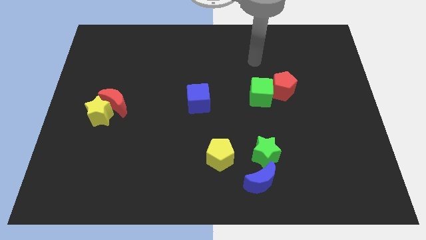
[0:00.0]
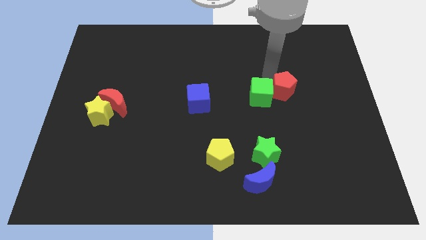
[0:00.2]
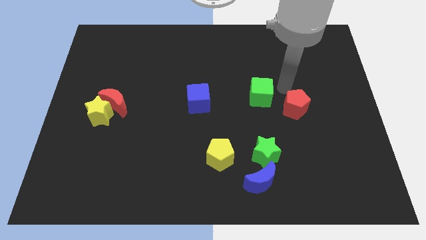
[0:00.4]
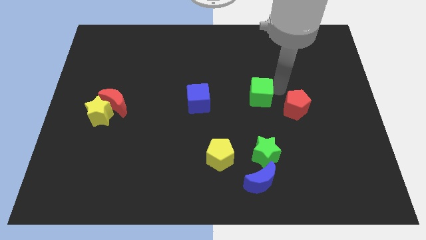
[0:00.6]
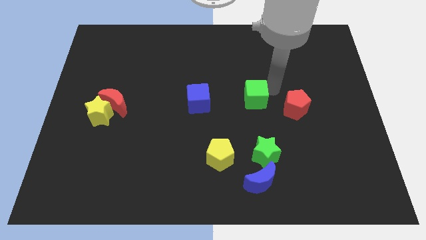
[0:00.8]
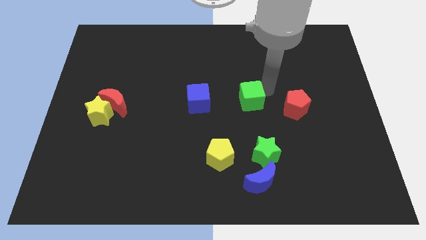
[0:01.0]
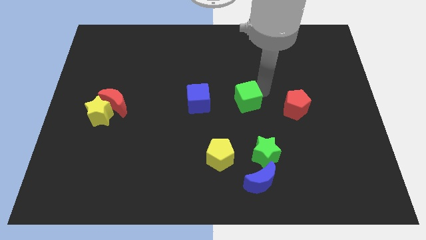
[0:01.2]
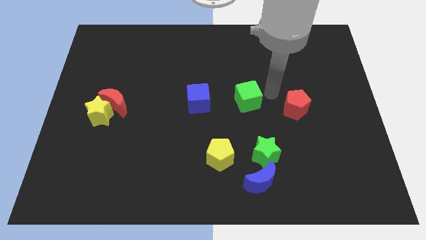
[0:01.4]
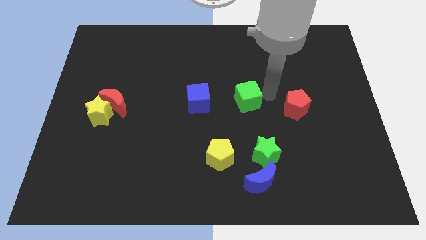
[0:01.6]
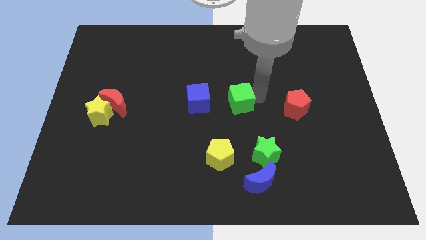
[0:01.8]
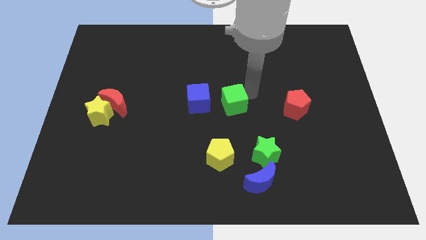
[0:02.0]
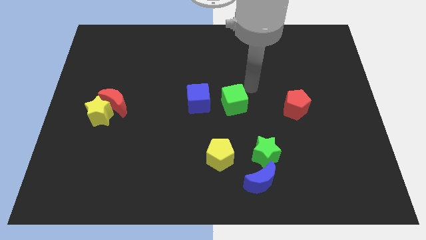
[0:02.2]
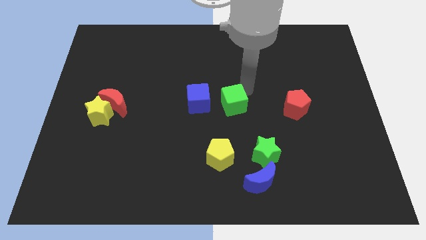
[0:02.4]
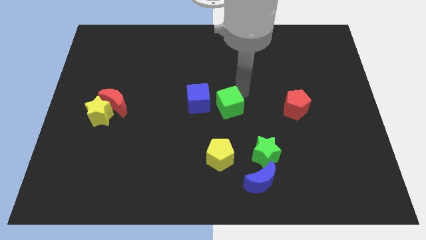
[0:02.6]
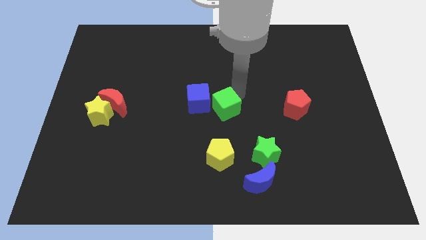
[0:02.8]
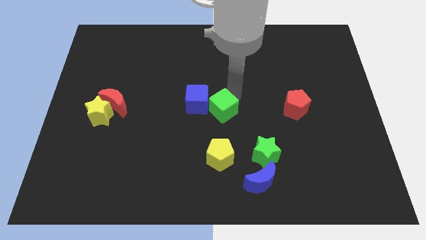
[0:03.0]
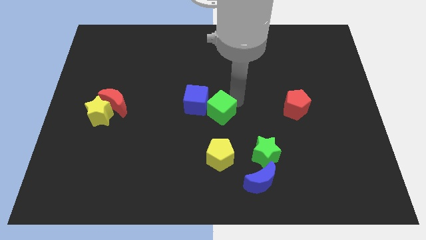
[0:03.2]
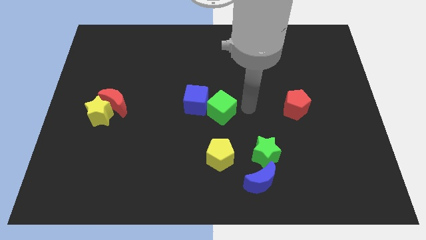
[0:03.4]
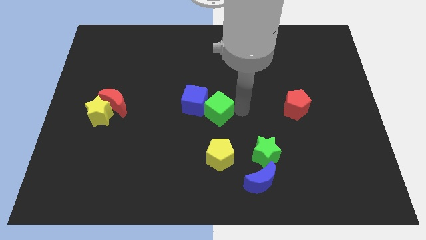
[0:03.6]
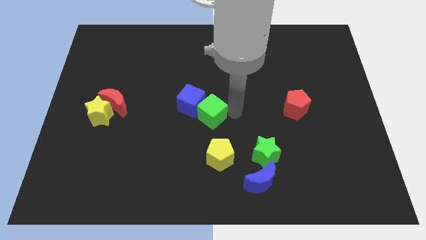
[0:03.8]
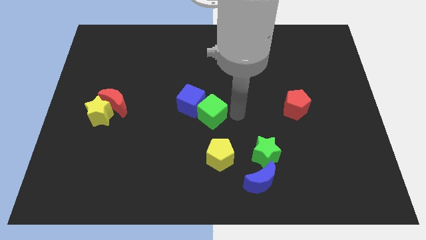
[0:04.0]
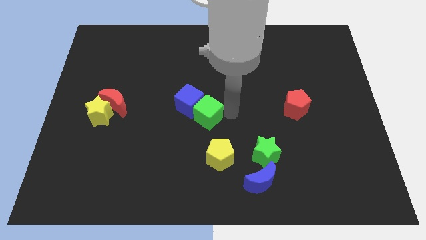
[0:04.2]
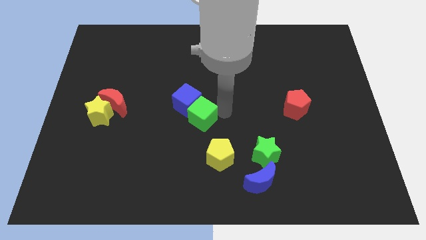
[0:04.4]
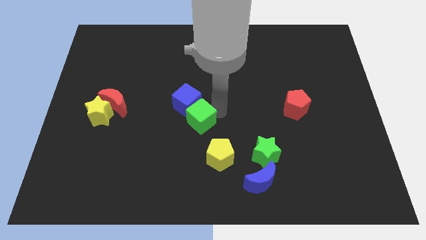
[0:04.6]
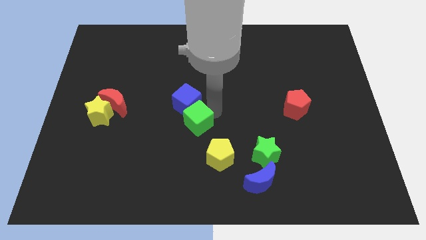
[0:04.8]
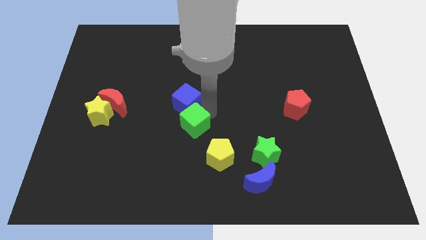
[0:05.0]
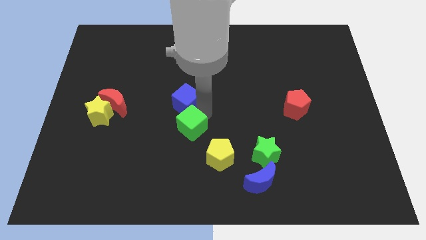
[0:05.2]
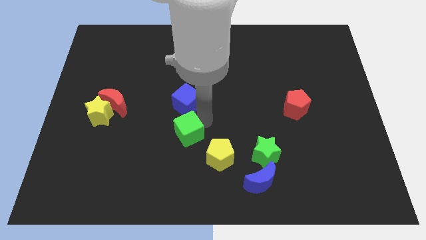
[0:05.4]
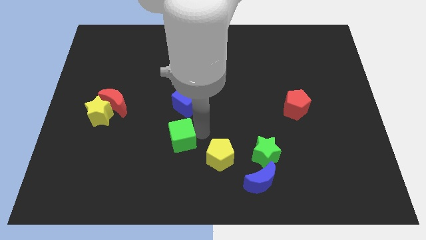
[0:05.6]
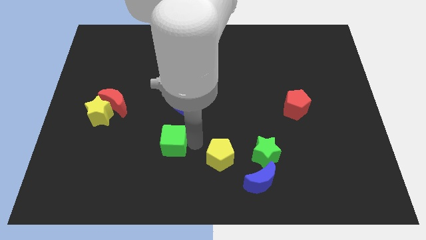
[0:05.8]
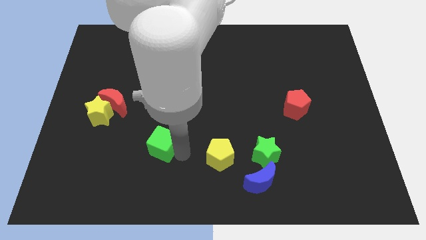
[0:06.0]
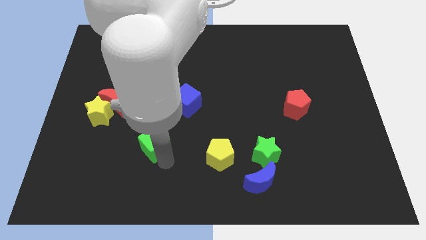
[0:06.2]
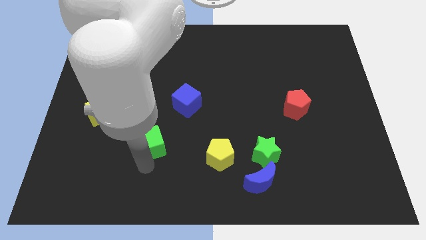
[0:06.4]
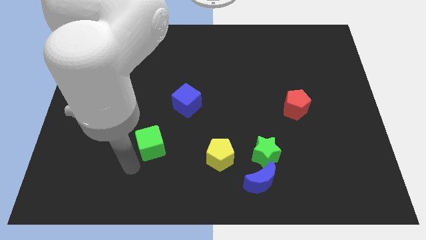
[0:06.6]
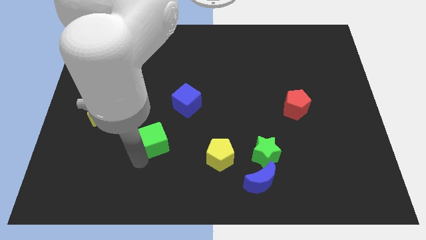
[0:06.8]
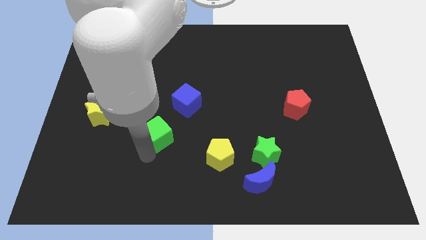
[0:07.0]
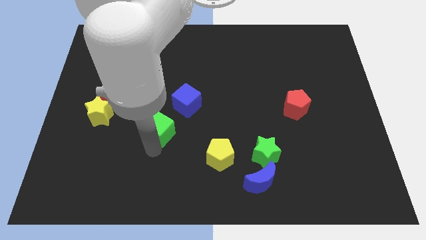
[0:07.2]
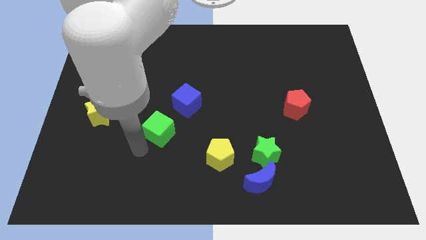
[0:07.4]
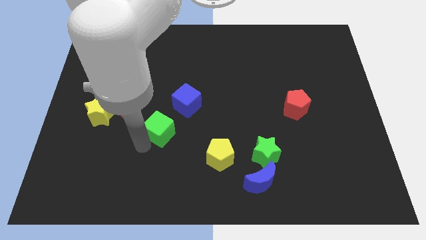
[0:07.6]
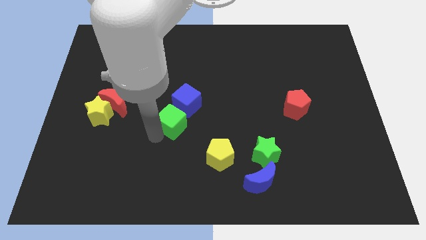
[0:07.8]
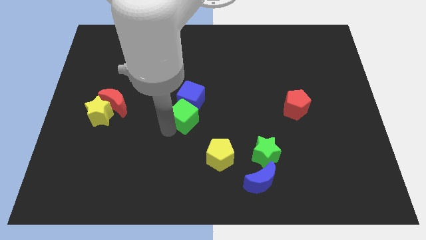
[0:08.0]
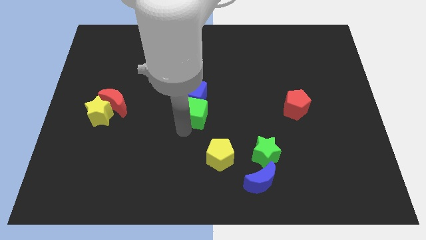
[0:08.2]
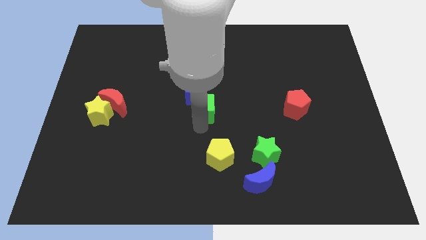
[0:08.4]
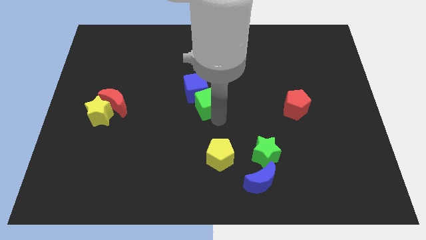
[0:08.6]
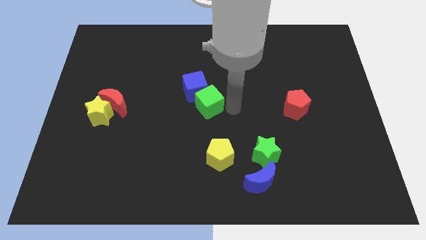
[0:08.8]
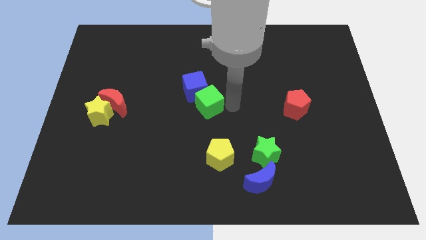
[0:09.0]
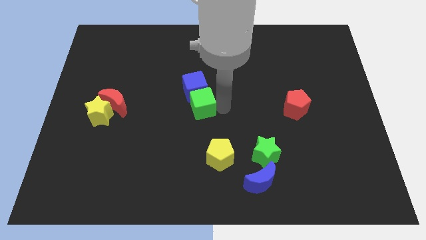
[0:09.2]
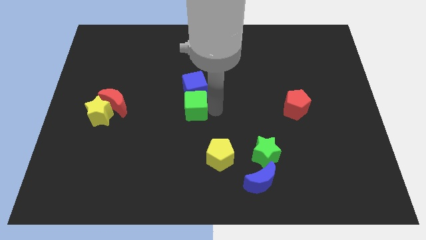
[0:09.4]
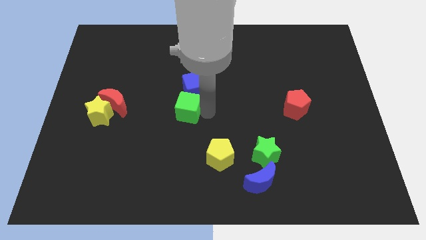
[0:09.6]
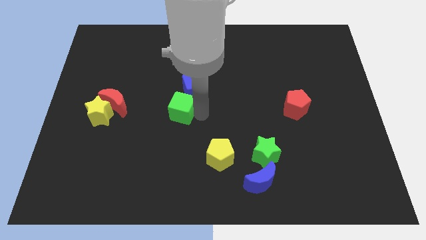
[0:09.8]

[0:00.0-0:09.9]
slide the green cube right of the red moon
